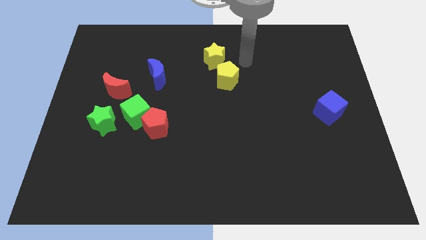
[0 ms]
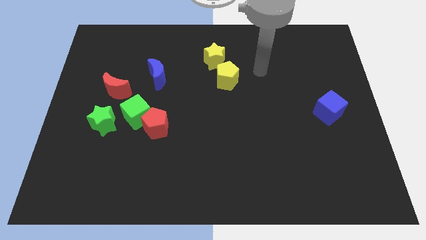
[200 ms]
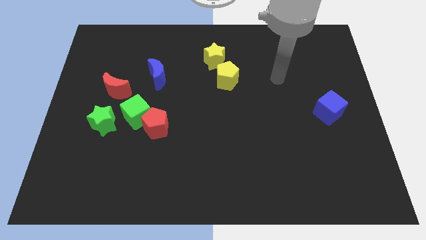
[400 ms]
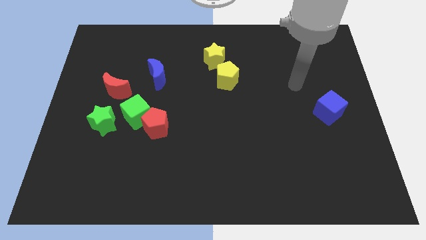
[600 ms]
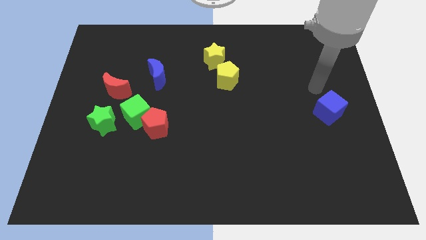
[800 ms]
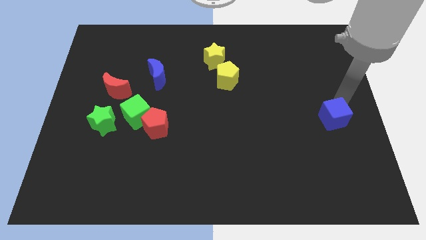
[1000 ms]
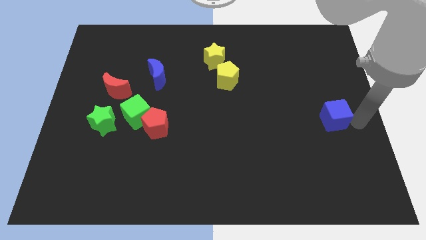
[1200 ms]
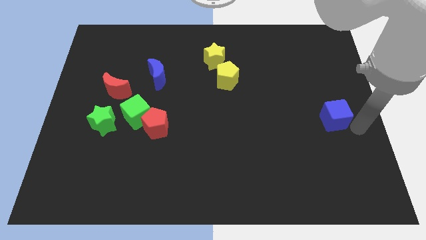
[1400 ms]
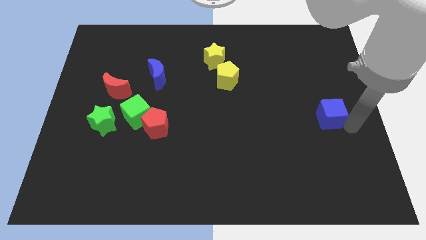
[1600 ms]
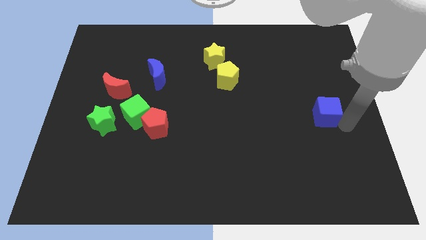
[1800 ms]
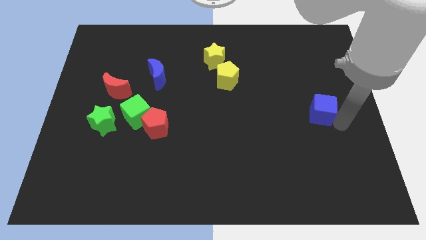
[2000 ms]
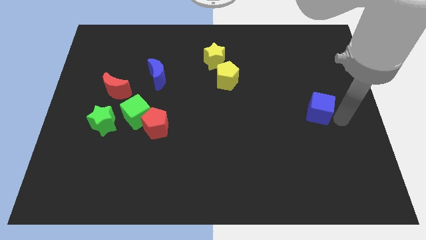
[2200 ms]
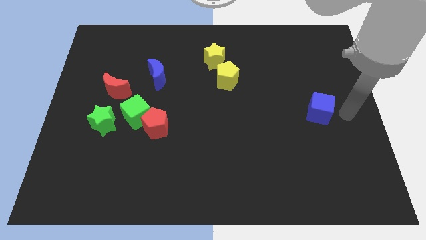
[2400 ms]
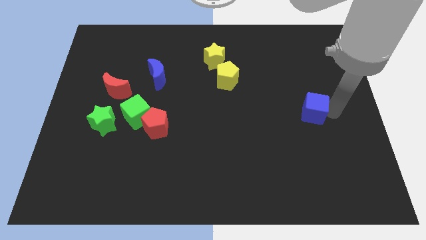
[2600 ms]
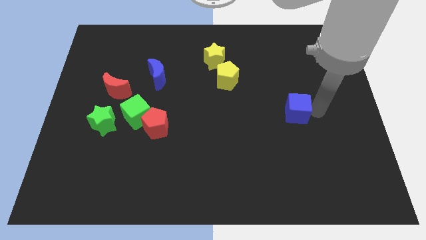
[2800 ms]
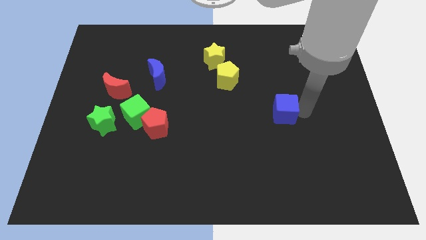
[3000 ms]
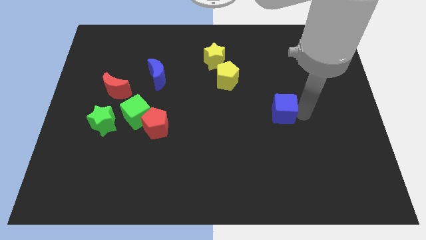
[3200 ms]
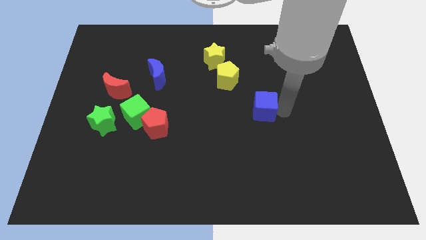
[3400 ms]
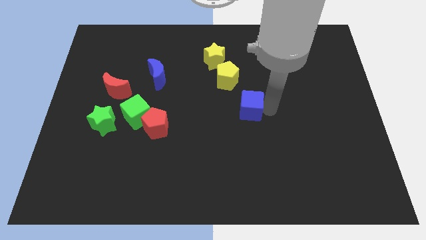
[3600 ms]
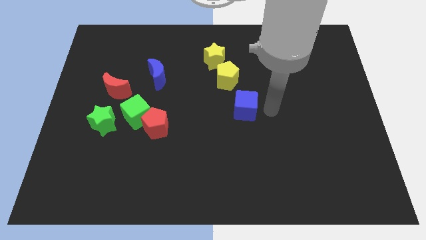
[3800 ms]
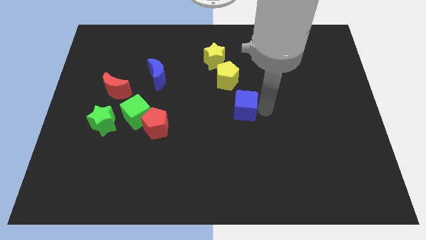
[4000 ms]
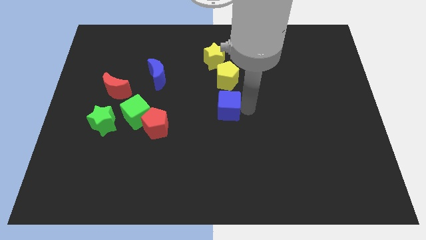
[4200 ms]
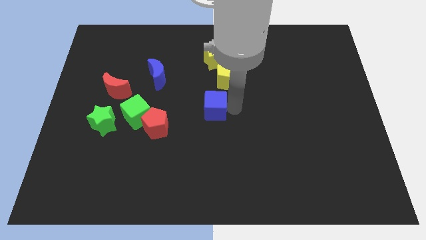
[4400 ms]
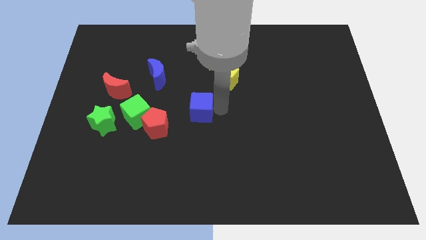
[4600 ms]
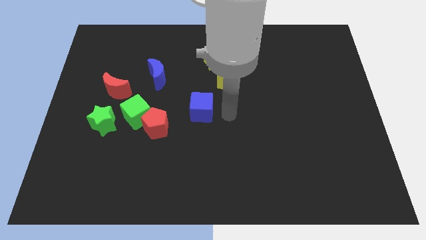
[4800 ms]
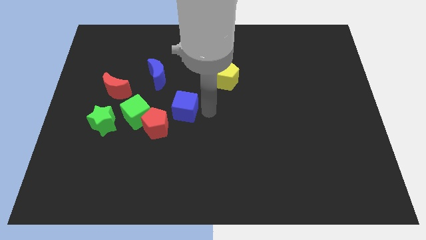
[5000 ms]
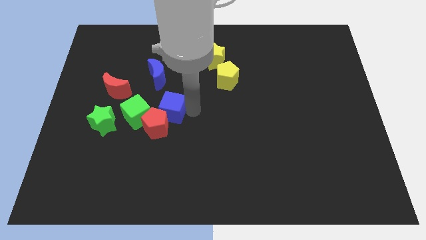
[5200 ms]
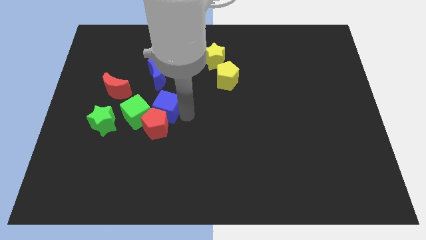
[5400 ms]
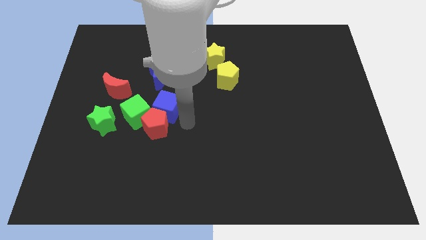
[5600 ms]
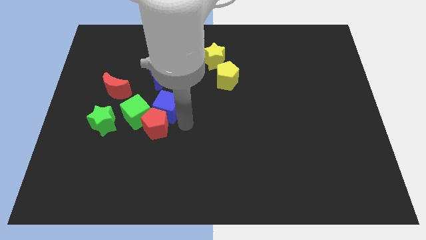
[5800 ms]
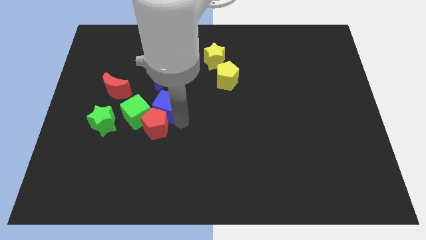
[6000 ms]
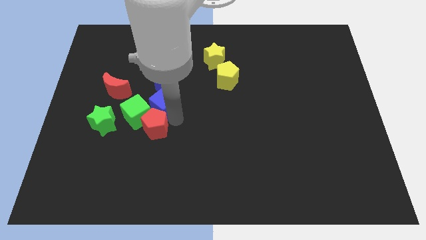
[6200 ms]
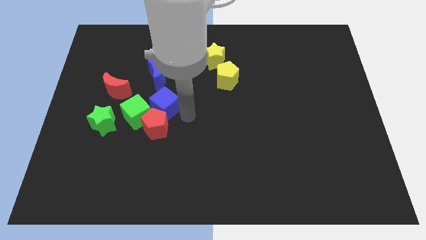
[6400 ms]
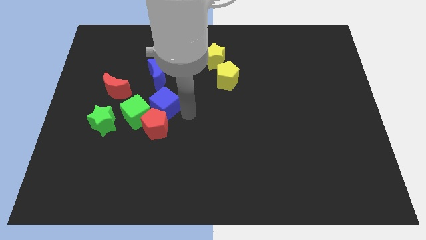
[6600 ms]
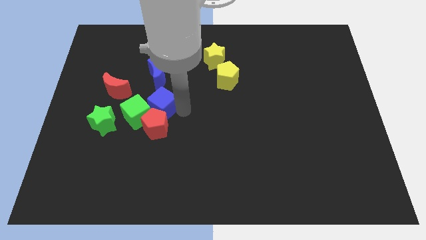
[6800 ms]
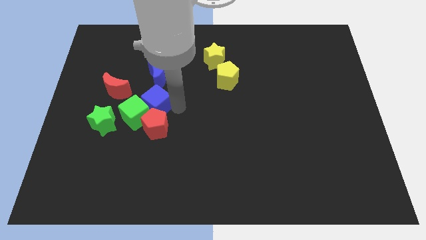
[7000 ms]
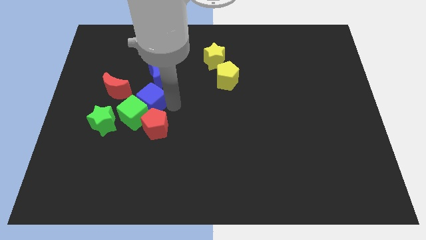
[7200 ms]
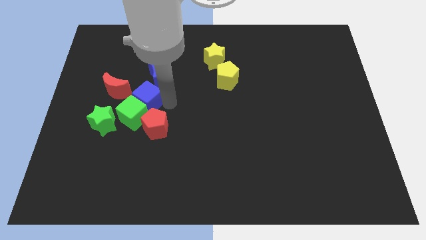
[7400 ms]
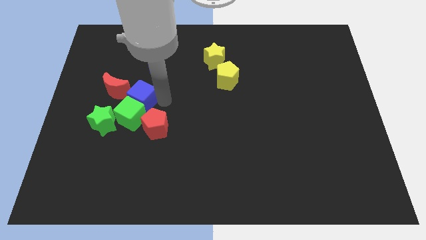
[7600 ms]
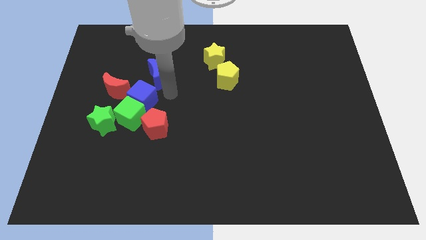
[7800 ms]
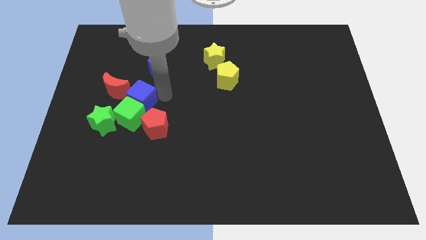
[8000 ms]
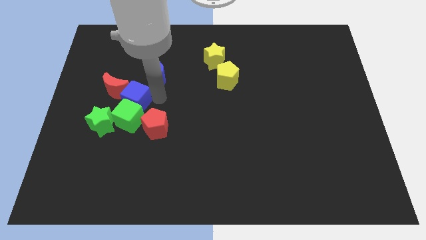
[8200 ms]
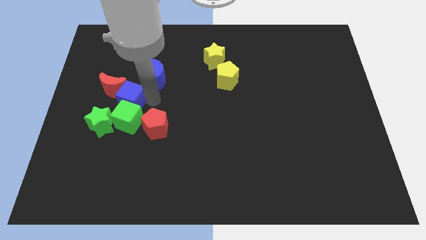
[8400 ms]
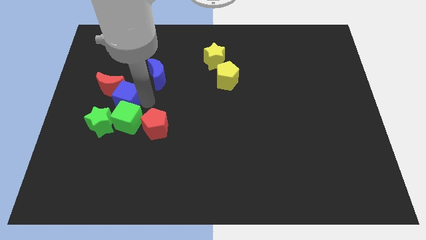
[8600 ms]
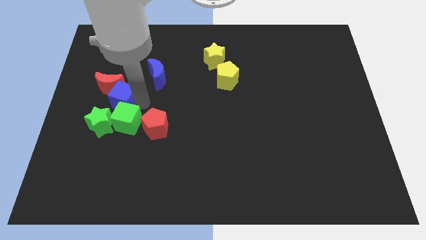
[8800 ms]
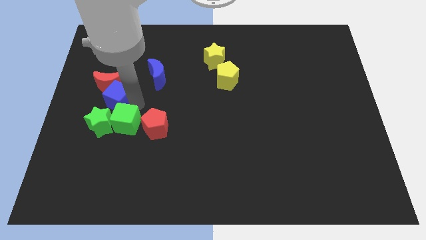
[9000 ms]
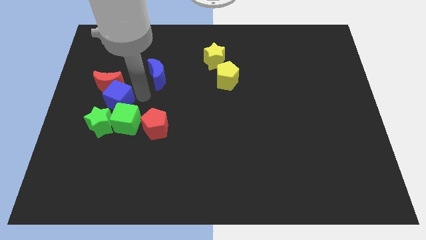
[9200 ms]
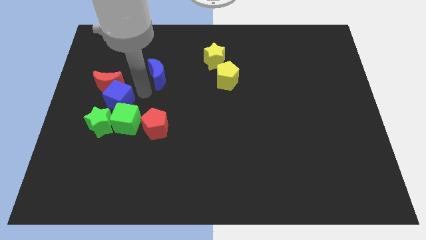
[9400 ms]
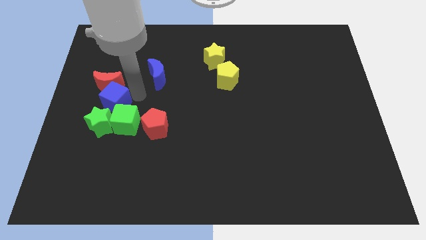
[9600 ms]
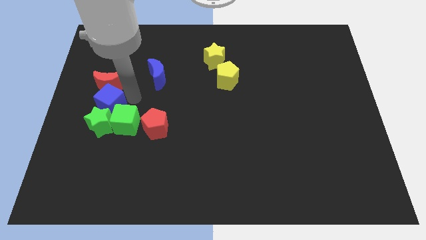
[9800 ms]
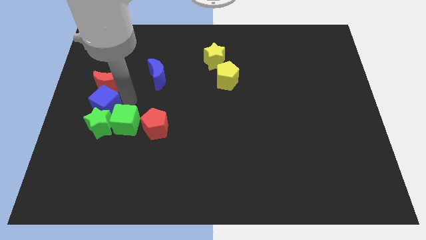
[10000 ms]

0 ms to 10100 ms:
push the blue cube to the left side

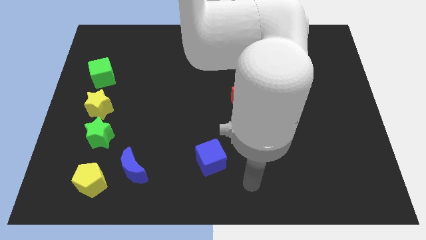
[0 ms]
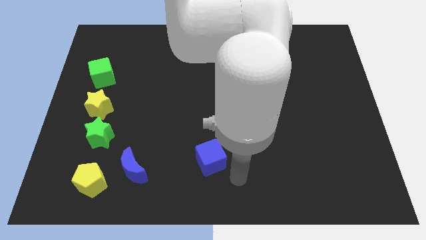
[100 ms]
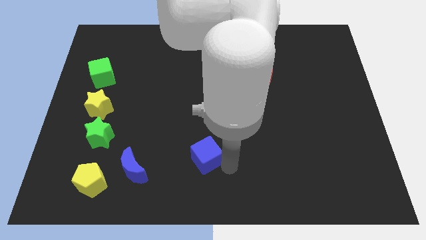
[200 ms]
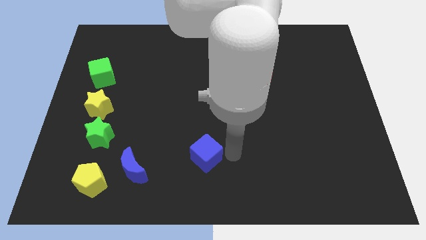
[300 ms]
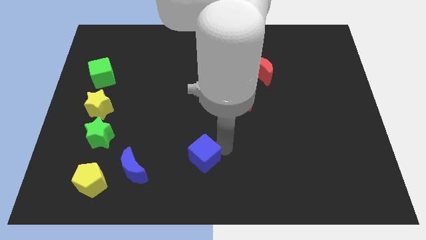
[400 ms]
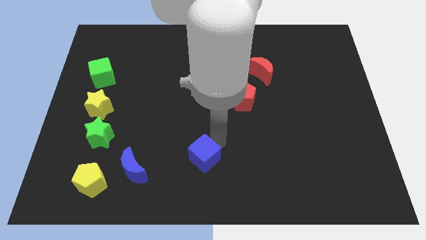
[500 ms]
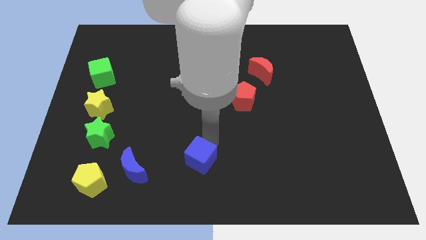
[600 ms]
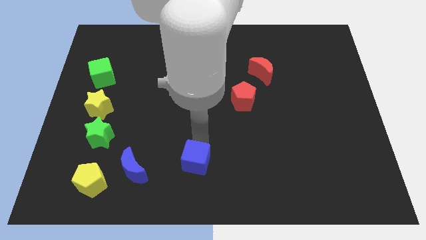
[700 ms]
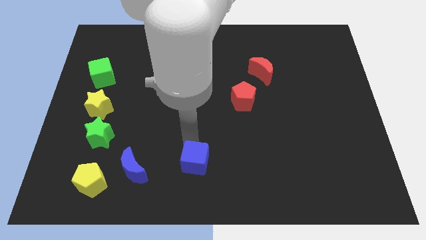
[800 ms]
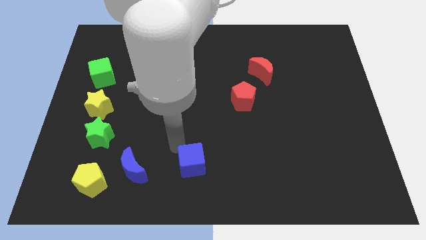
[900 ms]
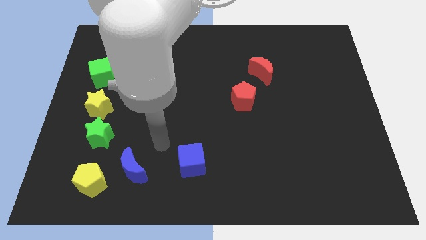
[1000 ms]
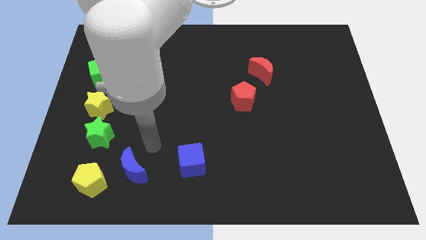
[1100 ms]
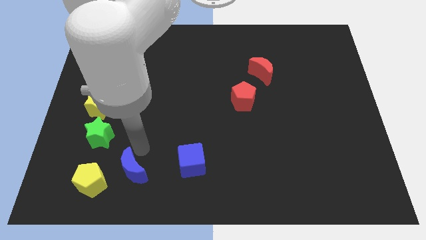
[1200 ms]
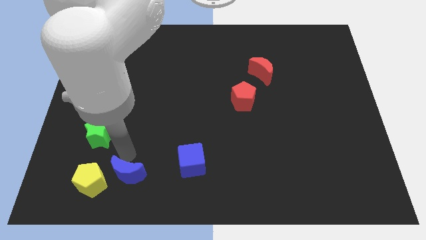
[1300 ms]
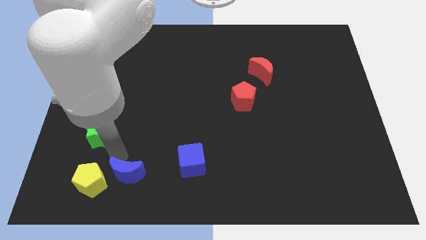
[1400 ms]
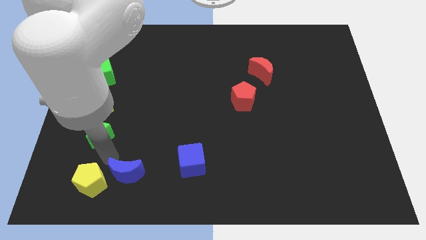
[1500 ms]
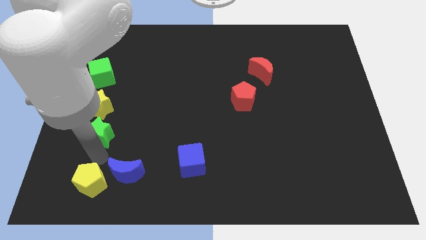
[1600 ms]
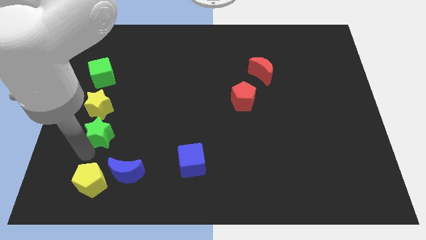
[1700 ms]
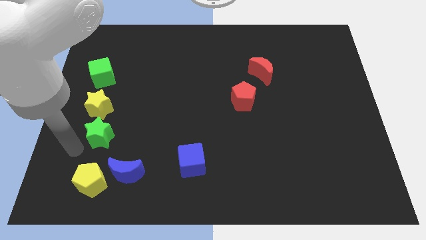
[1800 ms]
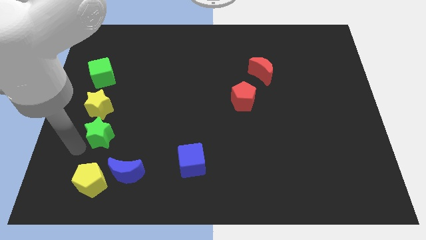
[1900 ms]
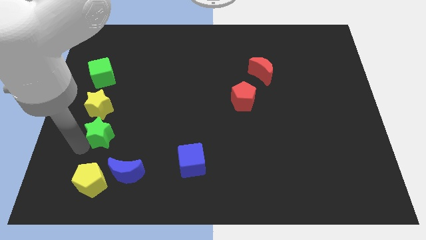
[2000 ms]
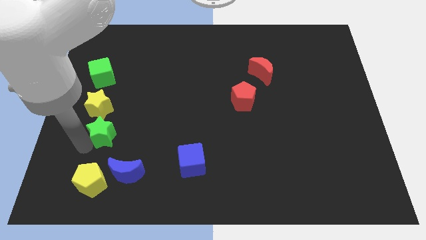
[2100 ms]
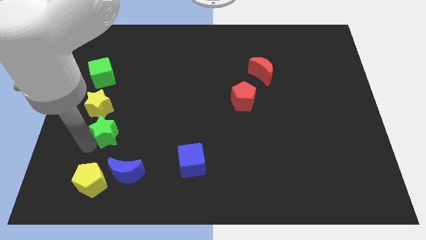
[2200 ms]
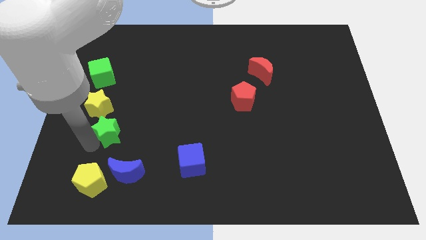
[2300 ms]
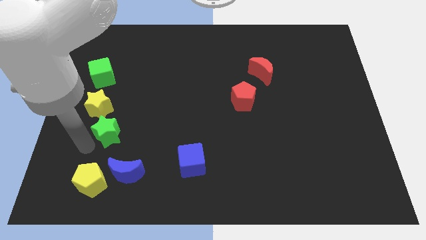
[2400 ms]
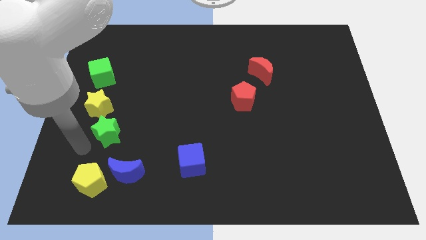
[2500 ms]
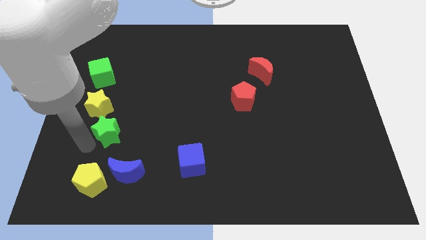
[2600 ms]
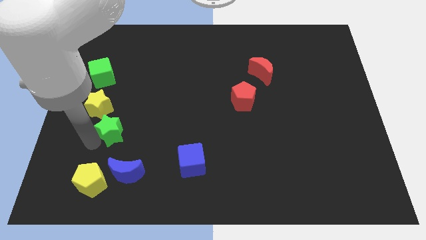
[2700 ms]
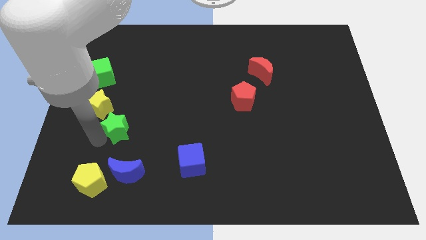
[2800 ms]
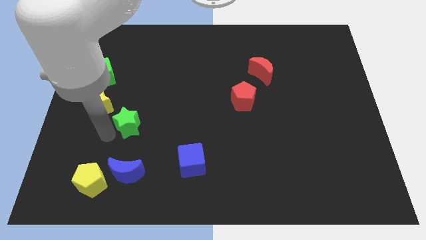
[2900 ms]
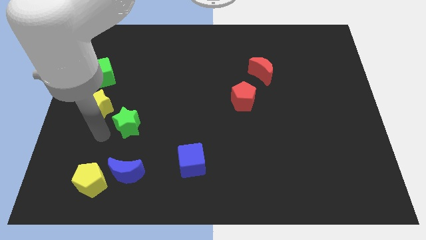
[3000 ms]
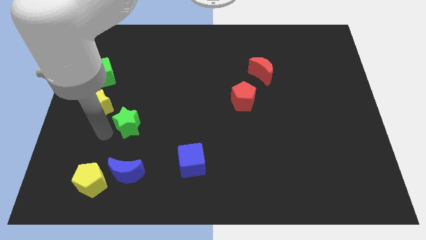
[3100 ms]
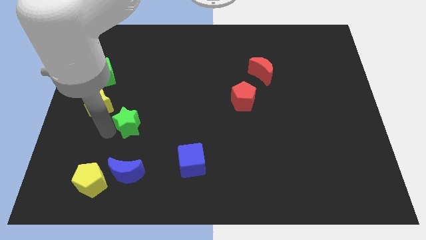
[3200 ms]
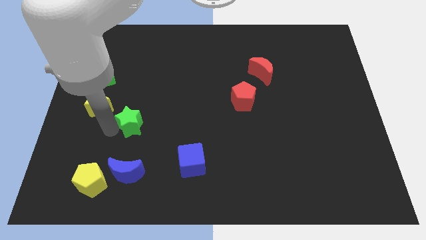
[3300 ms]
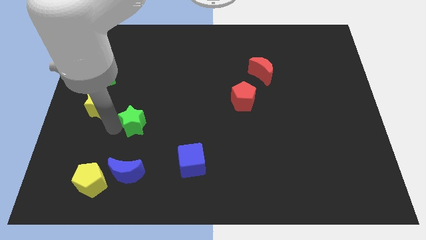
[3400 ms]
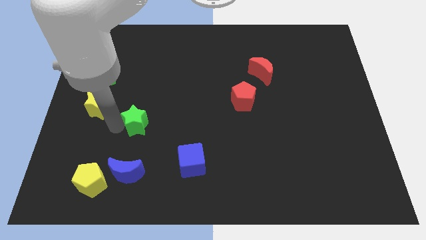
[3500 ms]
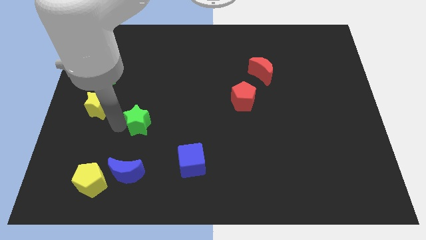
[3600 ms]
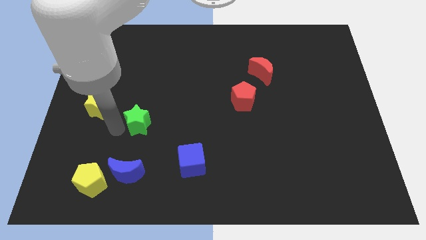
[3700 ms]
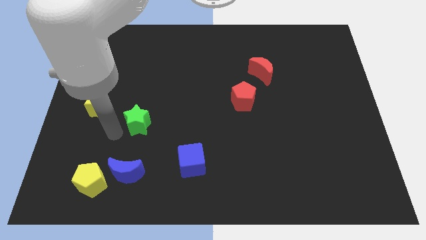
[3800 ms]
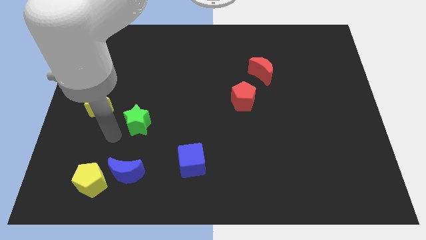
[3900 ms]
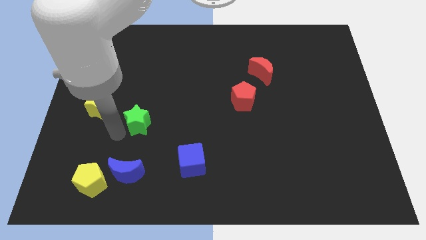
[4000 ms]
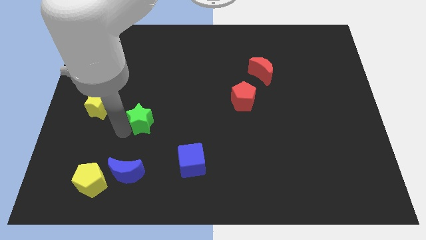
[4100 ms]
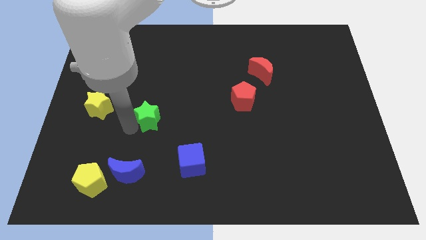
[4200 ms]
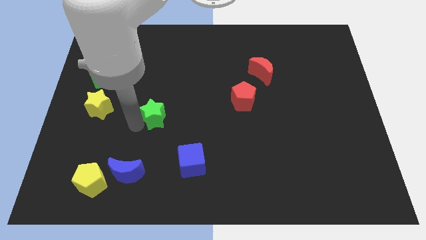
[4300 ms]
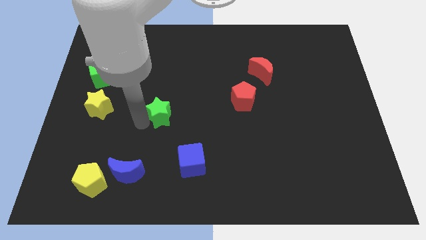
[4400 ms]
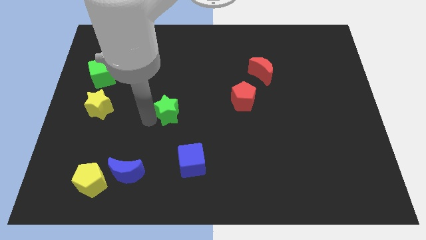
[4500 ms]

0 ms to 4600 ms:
put the green star to the center
